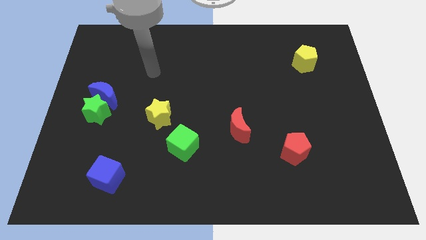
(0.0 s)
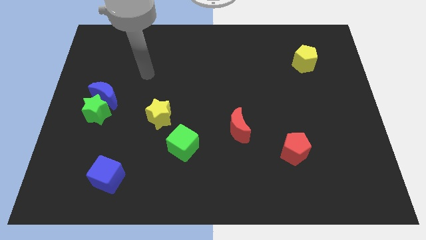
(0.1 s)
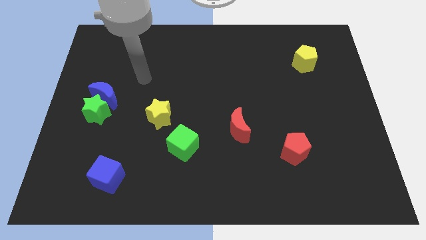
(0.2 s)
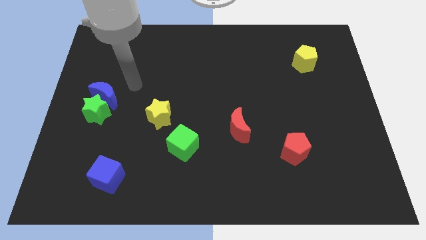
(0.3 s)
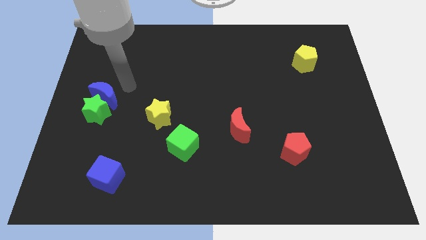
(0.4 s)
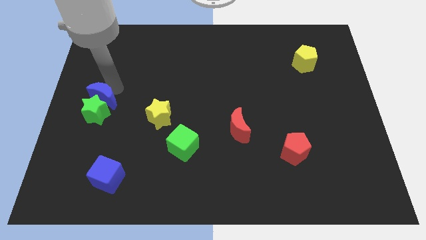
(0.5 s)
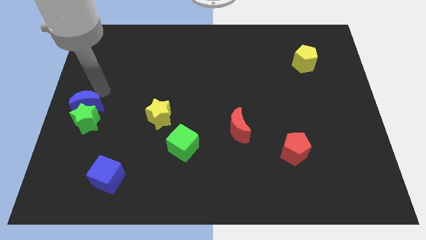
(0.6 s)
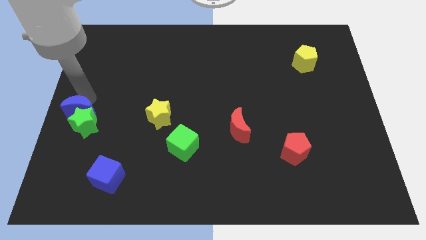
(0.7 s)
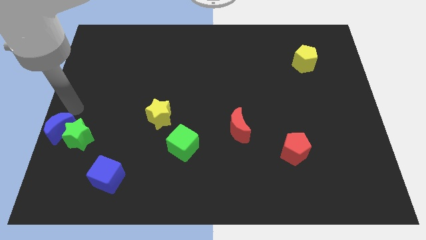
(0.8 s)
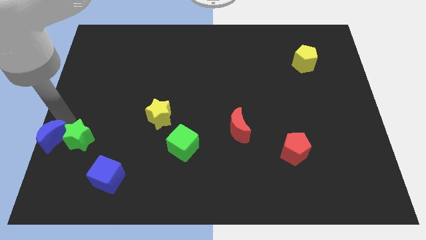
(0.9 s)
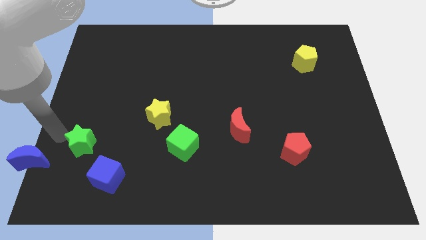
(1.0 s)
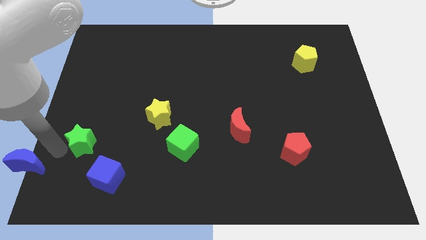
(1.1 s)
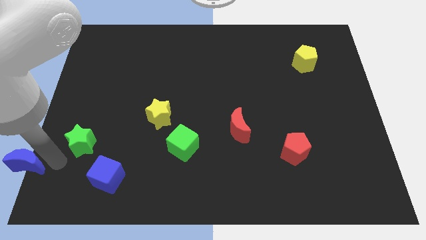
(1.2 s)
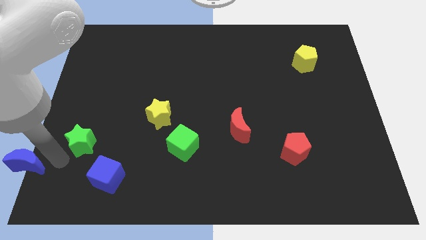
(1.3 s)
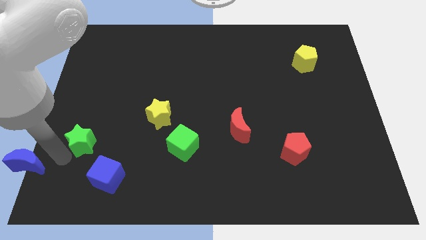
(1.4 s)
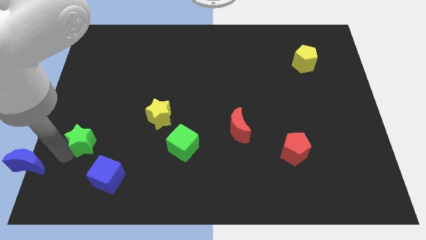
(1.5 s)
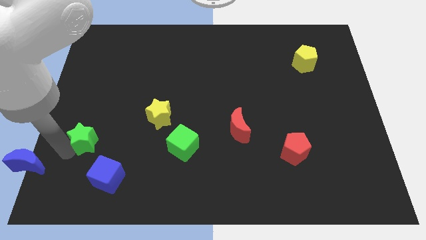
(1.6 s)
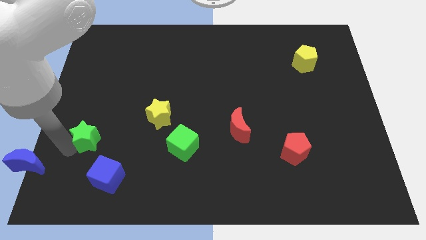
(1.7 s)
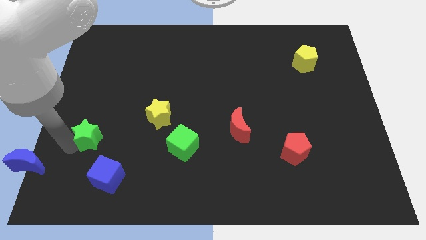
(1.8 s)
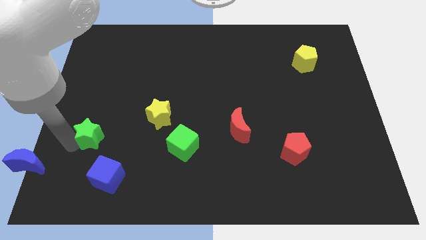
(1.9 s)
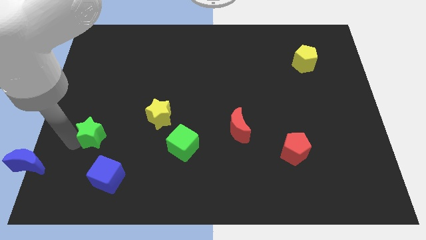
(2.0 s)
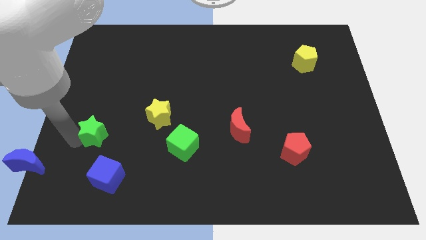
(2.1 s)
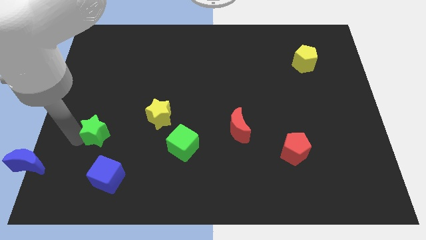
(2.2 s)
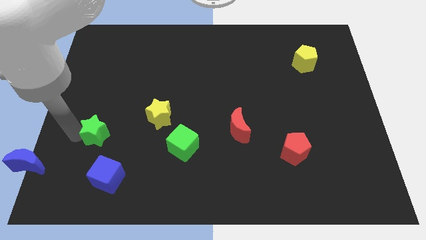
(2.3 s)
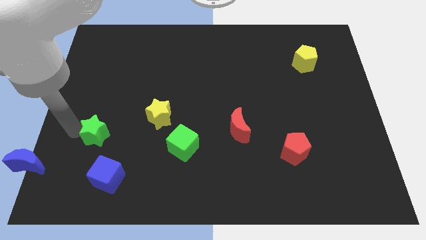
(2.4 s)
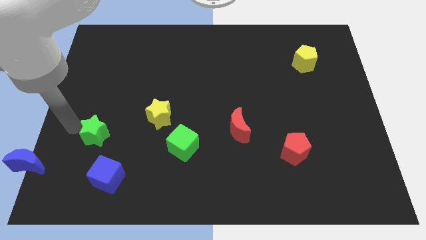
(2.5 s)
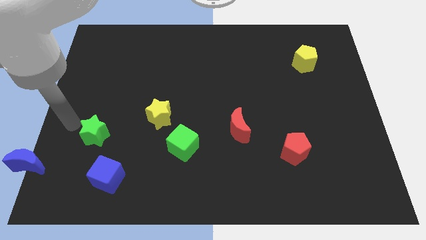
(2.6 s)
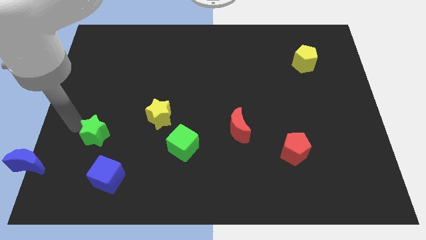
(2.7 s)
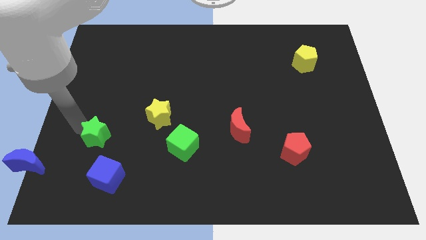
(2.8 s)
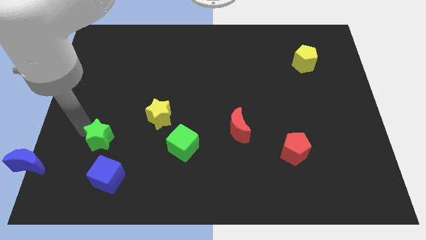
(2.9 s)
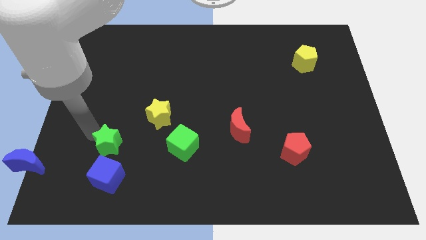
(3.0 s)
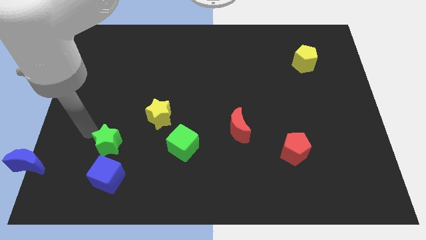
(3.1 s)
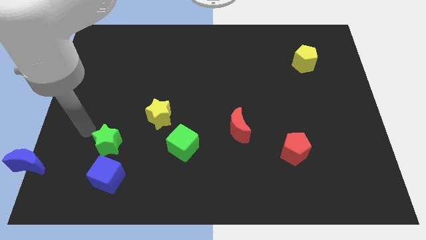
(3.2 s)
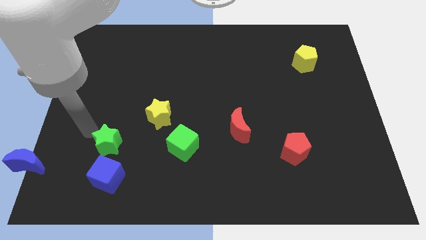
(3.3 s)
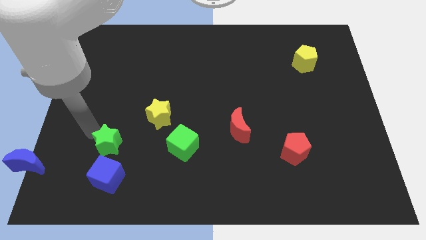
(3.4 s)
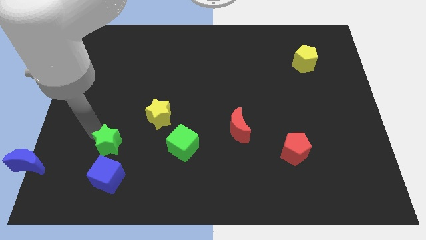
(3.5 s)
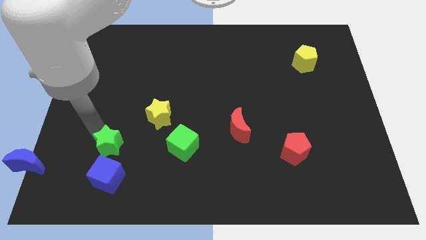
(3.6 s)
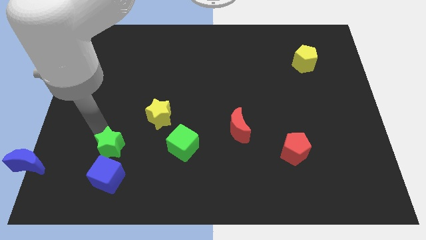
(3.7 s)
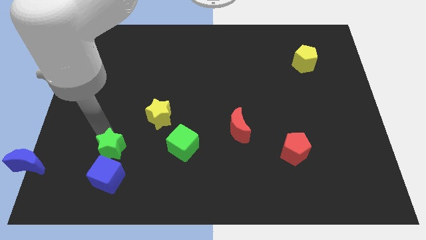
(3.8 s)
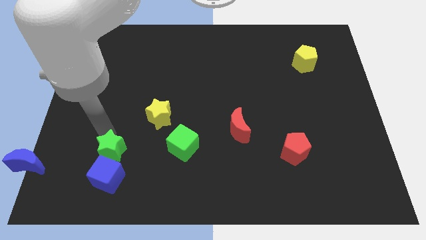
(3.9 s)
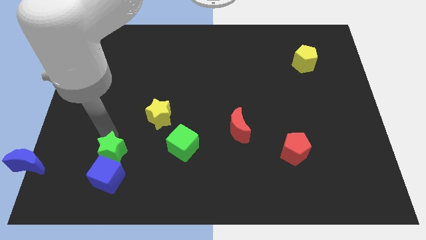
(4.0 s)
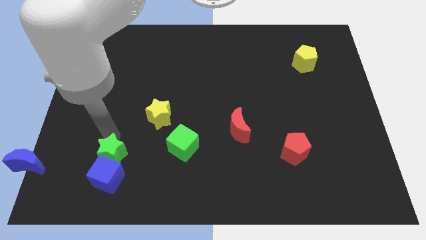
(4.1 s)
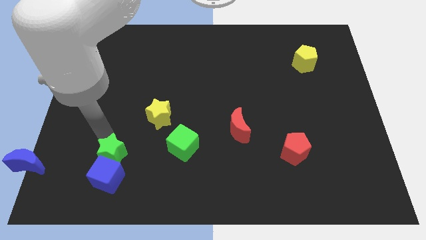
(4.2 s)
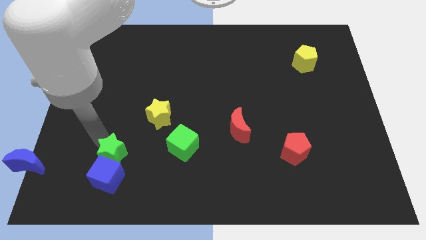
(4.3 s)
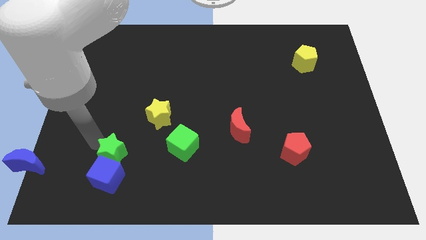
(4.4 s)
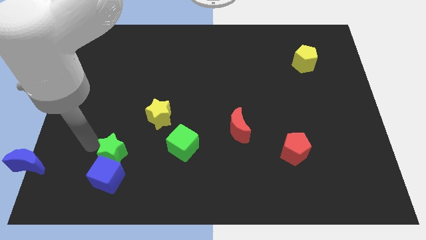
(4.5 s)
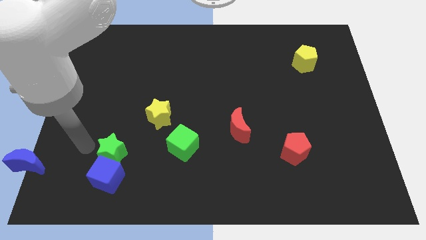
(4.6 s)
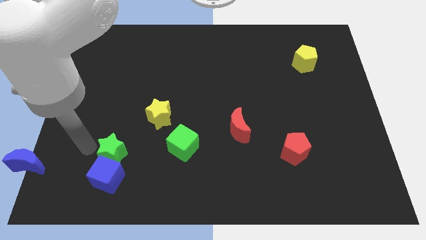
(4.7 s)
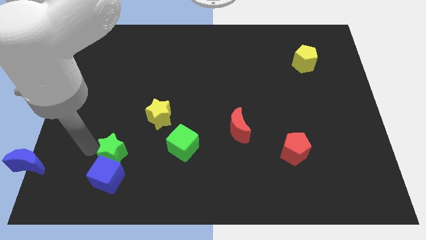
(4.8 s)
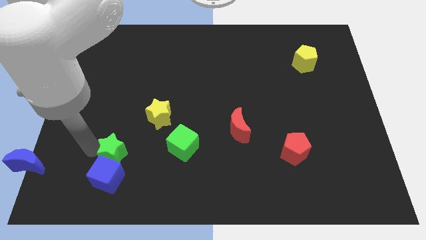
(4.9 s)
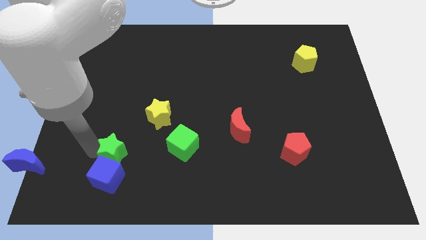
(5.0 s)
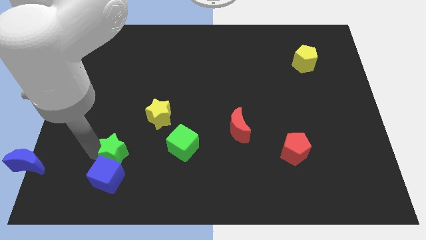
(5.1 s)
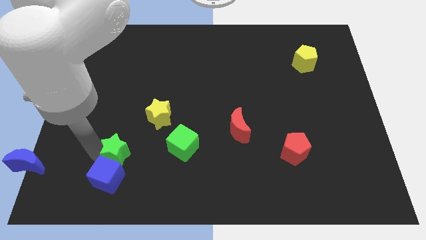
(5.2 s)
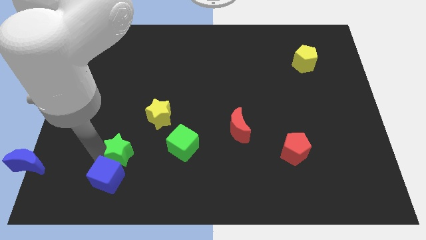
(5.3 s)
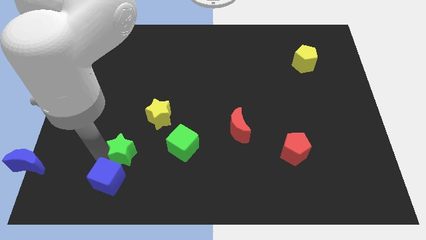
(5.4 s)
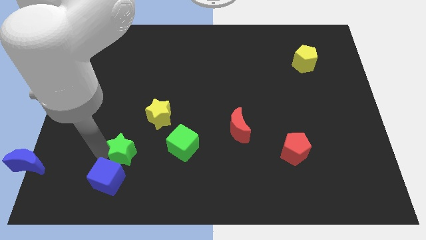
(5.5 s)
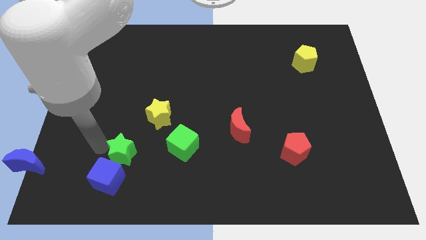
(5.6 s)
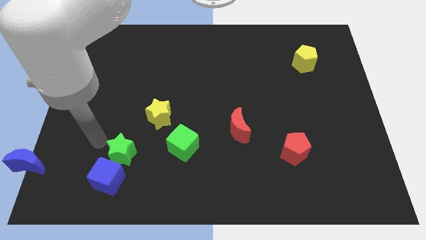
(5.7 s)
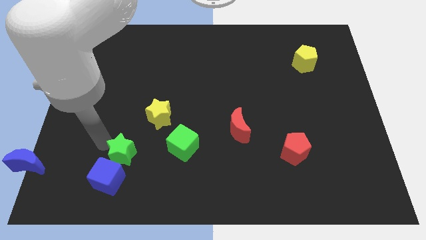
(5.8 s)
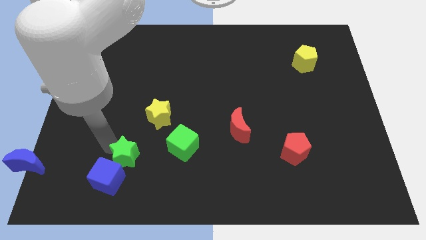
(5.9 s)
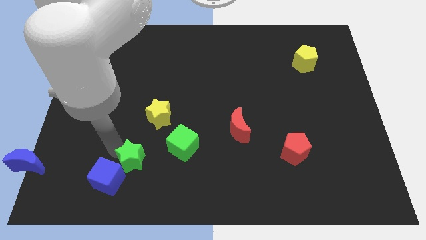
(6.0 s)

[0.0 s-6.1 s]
put the green star just right of the blue cube

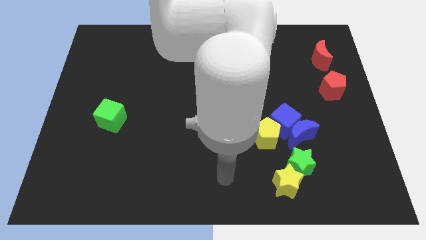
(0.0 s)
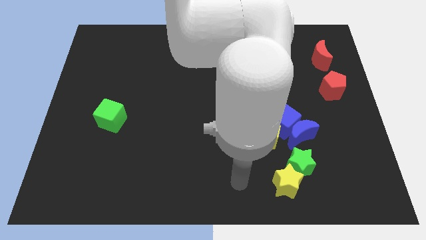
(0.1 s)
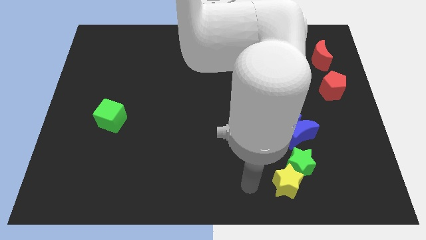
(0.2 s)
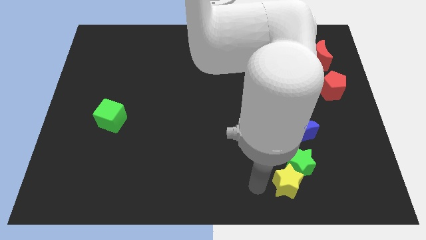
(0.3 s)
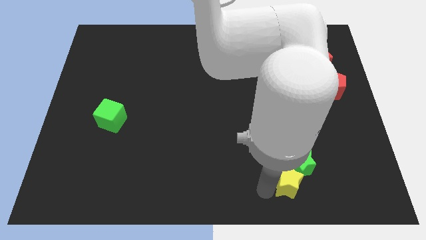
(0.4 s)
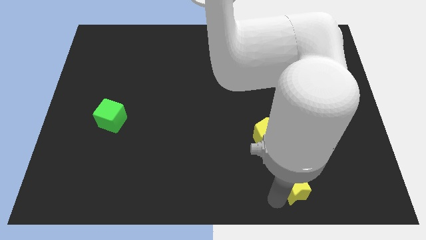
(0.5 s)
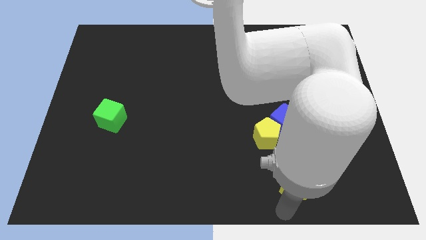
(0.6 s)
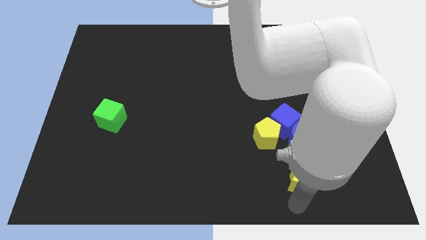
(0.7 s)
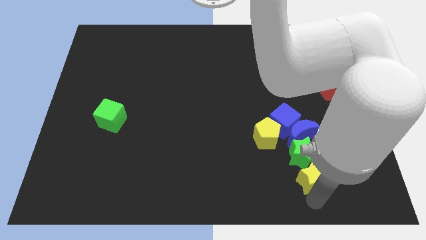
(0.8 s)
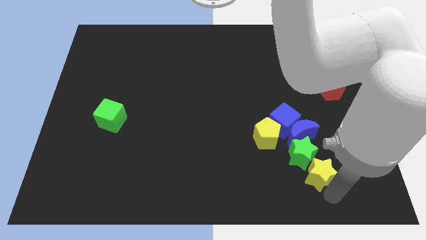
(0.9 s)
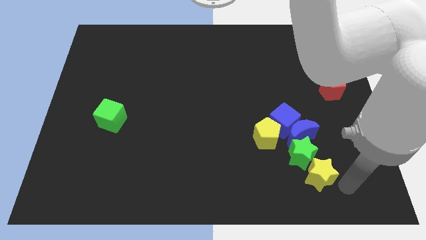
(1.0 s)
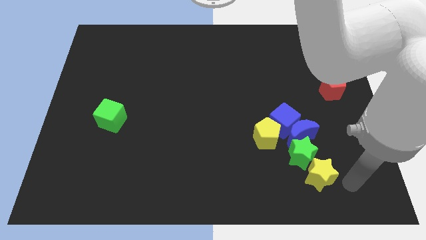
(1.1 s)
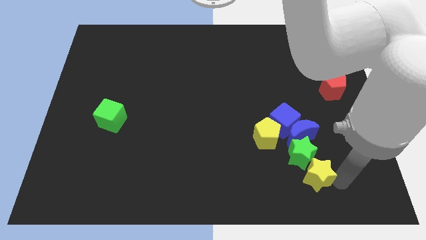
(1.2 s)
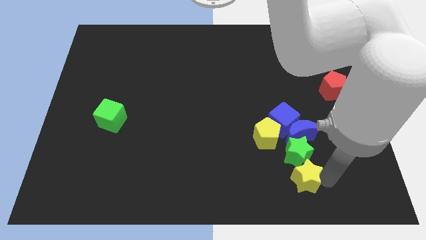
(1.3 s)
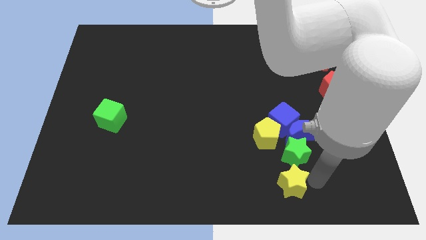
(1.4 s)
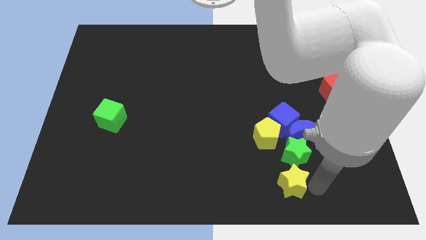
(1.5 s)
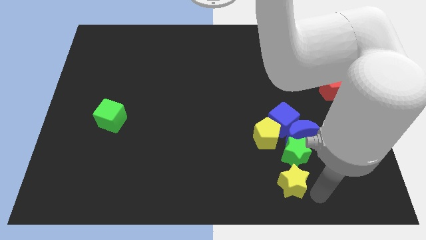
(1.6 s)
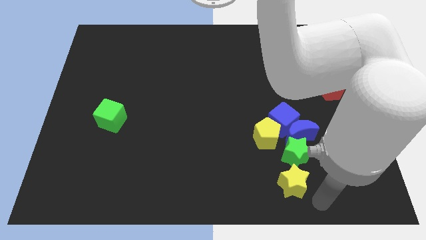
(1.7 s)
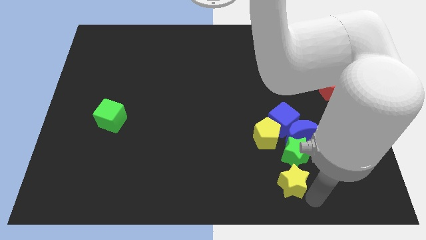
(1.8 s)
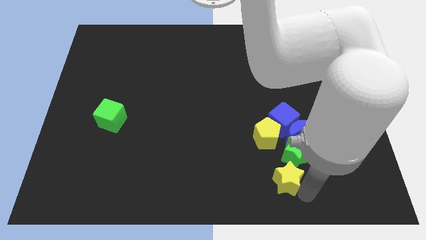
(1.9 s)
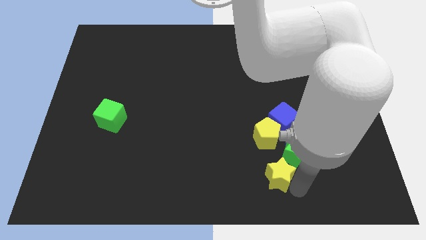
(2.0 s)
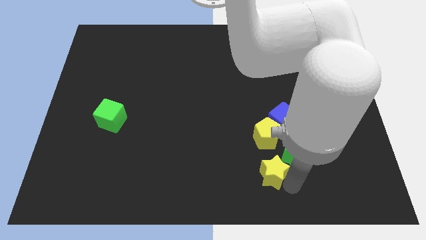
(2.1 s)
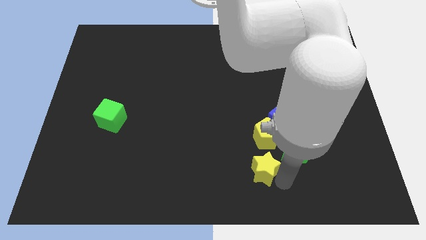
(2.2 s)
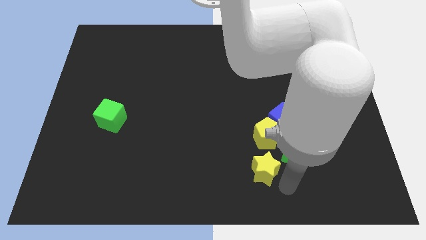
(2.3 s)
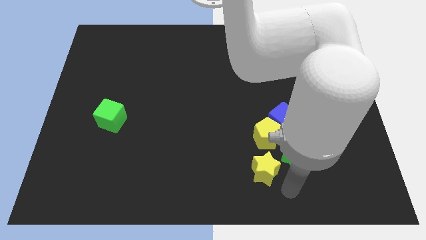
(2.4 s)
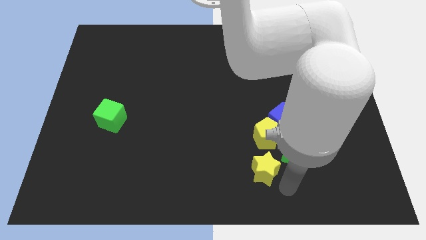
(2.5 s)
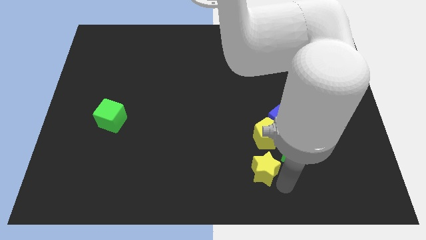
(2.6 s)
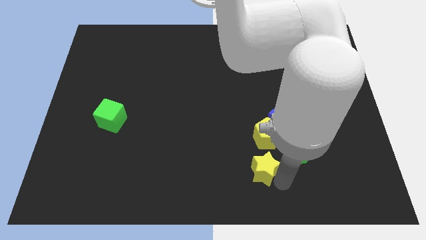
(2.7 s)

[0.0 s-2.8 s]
put the yellow star to the bottom left side of the yellow pentagon
